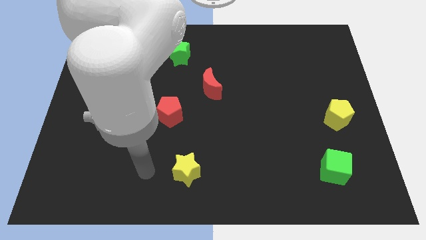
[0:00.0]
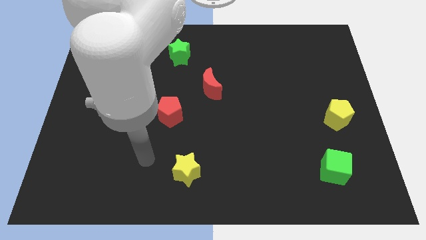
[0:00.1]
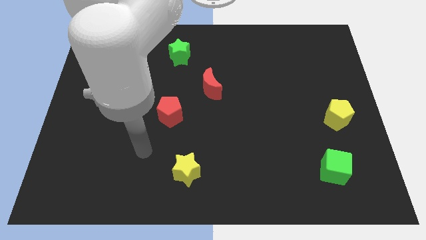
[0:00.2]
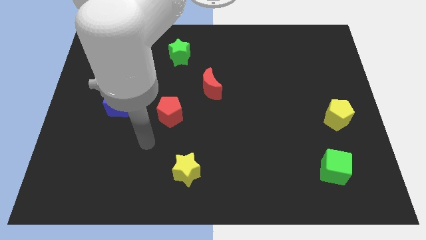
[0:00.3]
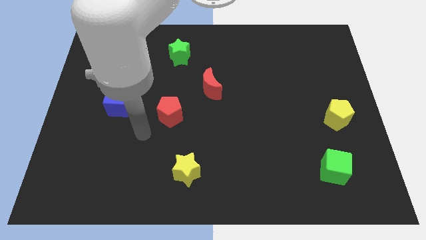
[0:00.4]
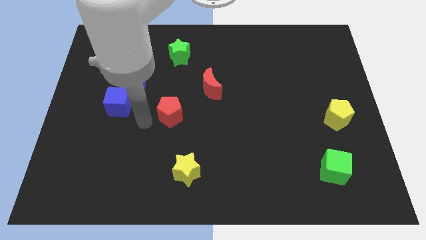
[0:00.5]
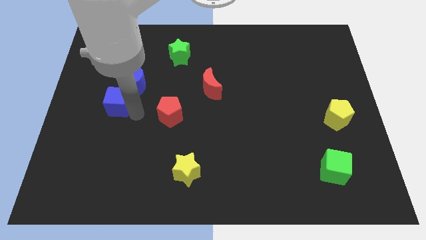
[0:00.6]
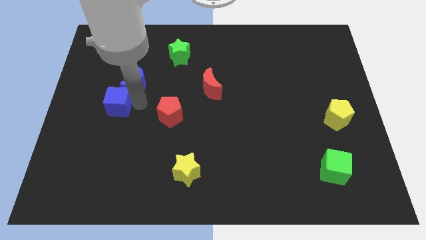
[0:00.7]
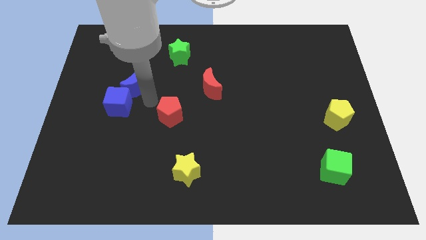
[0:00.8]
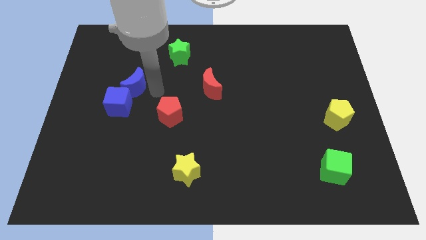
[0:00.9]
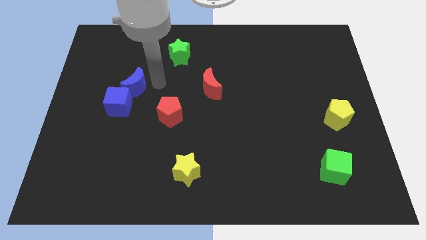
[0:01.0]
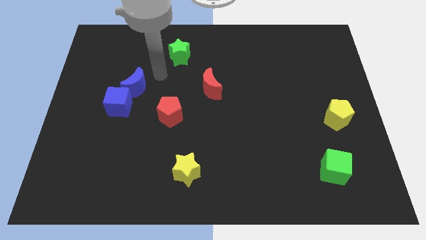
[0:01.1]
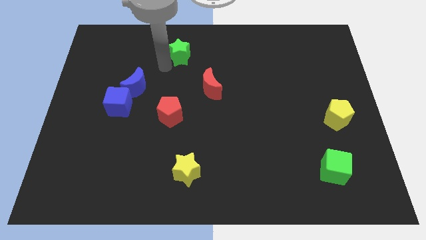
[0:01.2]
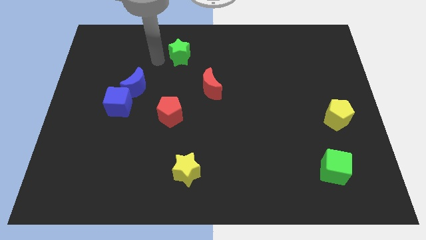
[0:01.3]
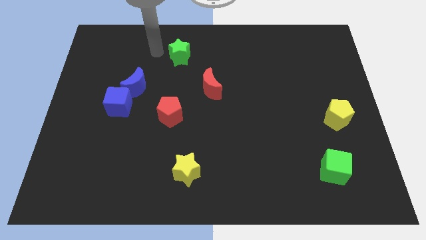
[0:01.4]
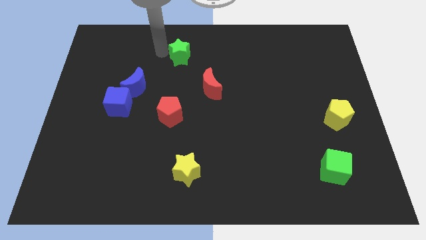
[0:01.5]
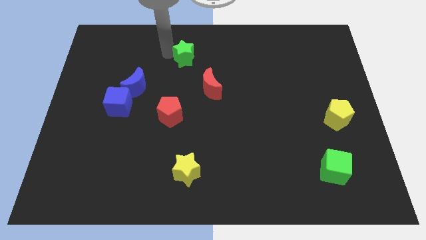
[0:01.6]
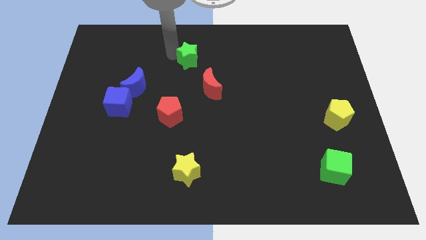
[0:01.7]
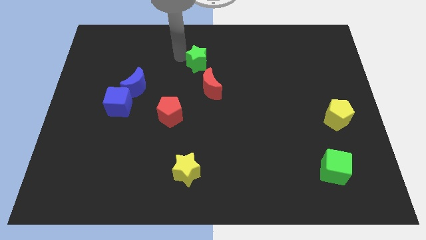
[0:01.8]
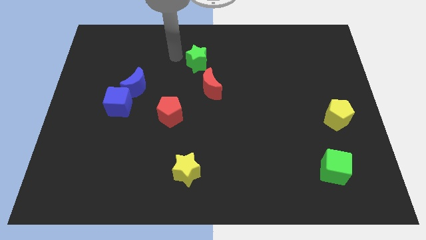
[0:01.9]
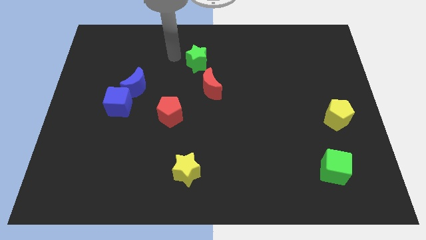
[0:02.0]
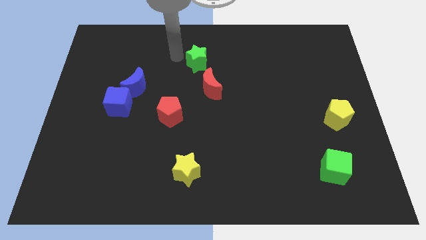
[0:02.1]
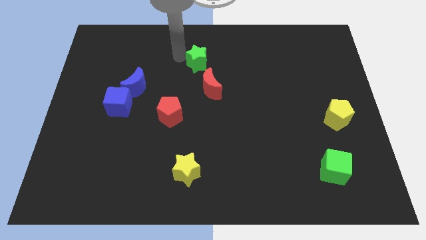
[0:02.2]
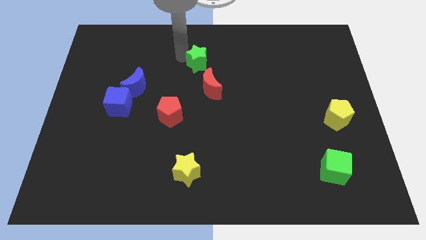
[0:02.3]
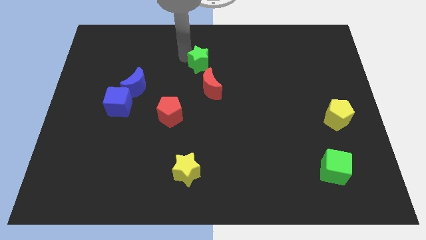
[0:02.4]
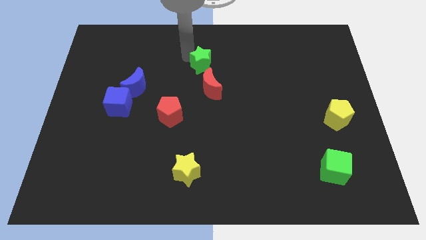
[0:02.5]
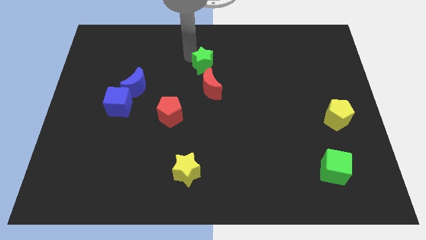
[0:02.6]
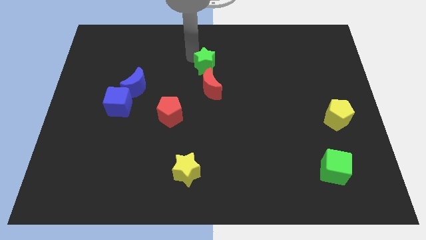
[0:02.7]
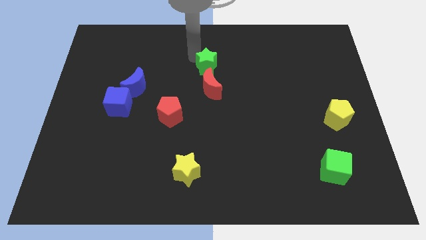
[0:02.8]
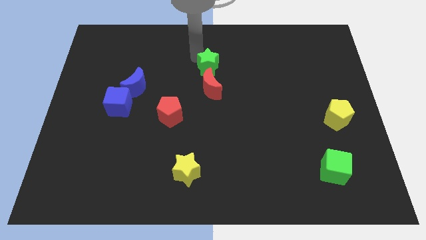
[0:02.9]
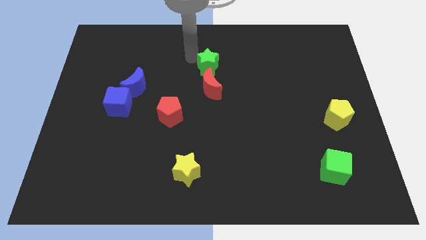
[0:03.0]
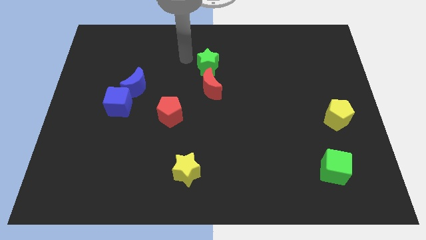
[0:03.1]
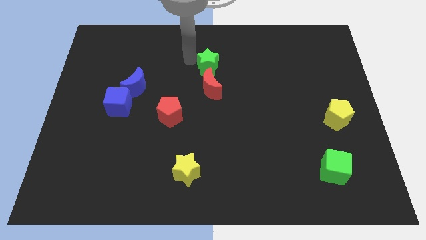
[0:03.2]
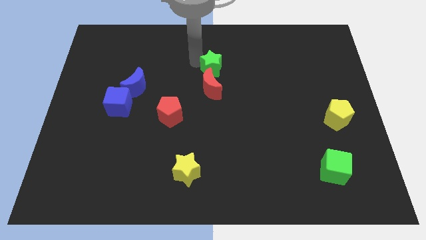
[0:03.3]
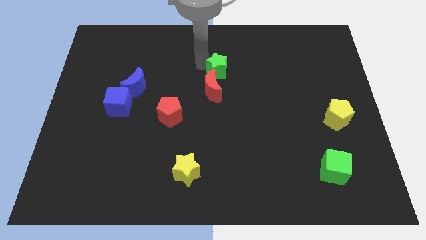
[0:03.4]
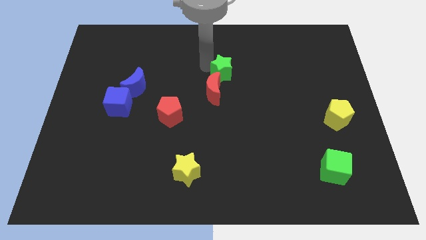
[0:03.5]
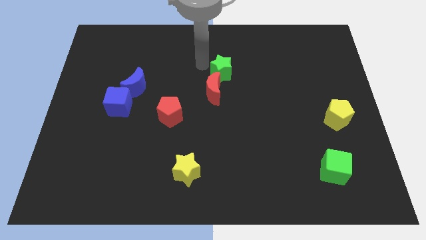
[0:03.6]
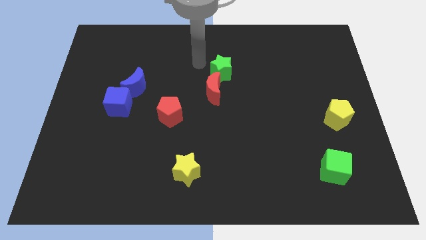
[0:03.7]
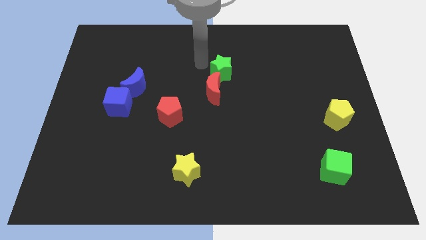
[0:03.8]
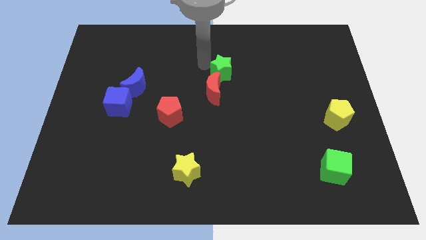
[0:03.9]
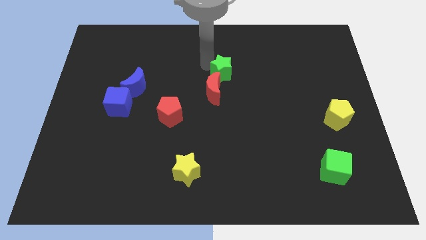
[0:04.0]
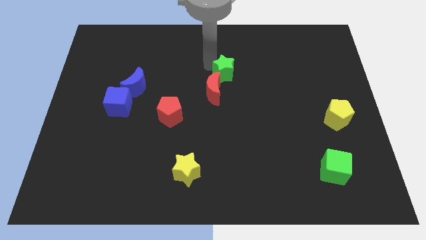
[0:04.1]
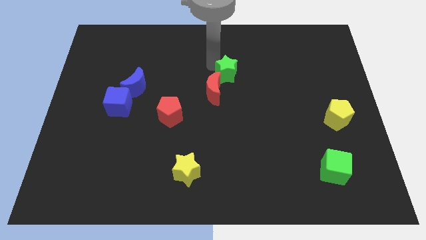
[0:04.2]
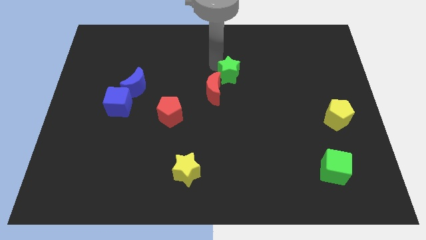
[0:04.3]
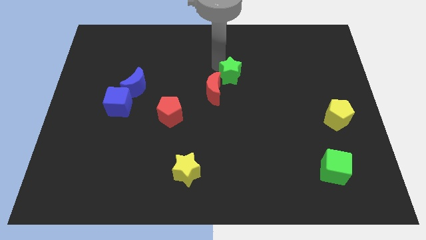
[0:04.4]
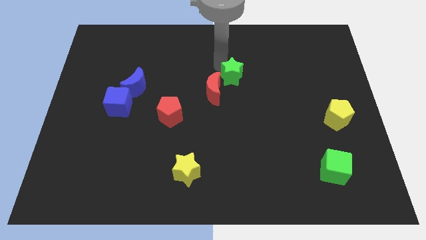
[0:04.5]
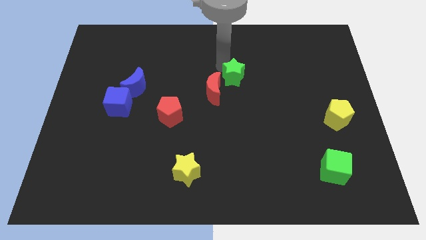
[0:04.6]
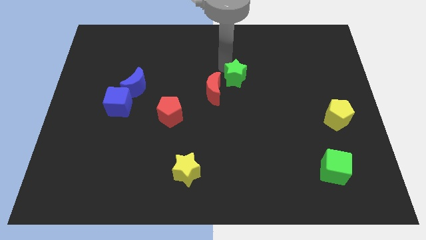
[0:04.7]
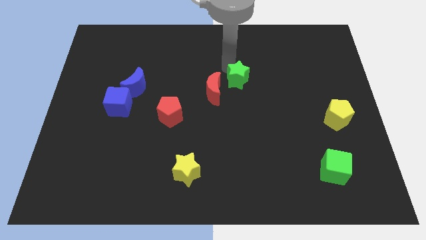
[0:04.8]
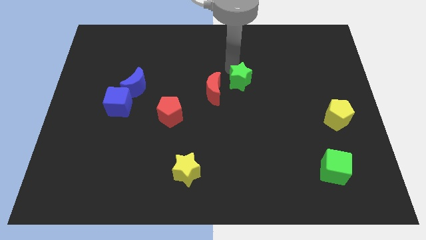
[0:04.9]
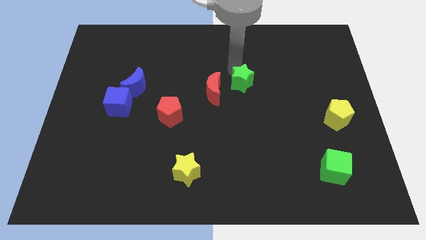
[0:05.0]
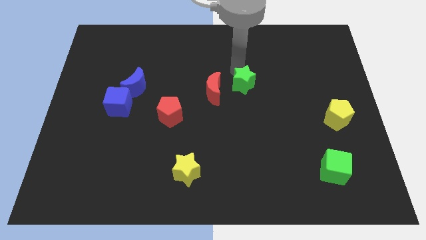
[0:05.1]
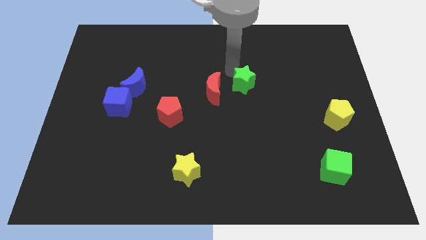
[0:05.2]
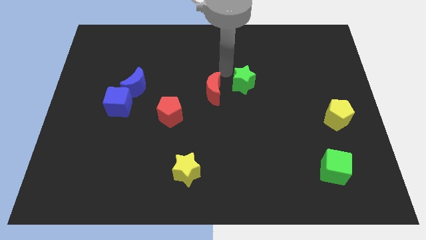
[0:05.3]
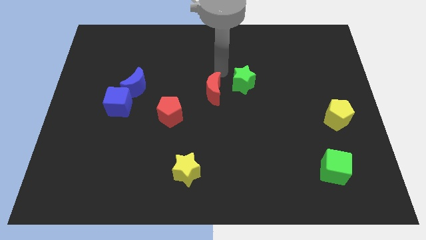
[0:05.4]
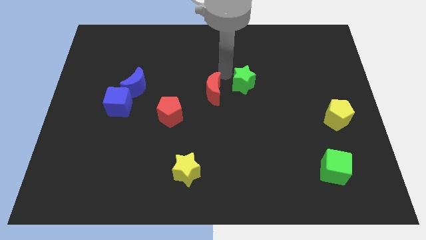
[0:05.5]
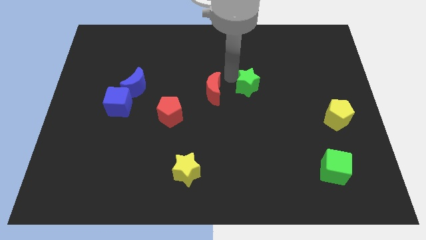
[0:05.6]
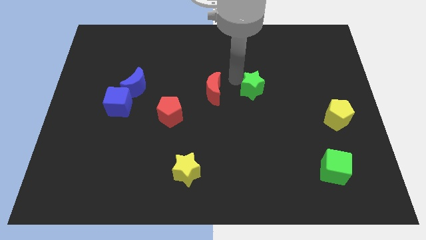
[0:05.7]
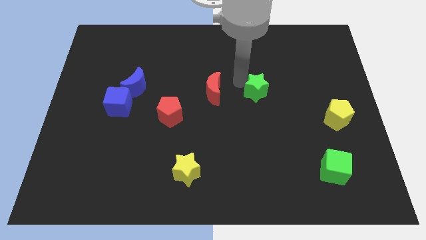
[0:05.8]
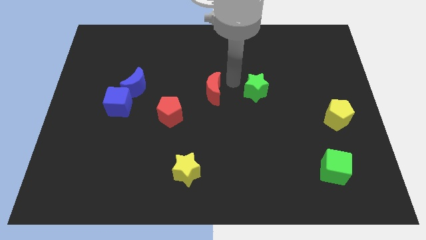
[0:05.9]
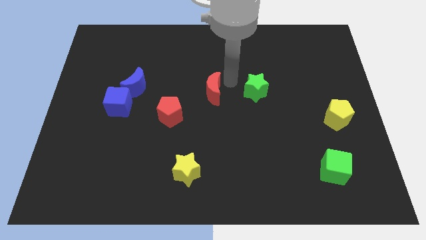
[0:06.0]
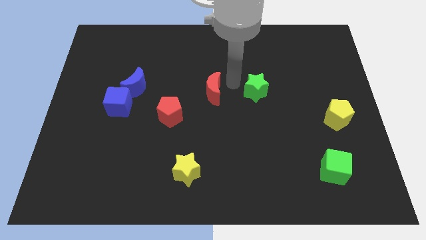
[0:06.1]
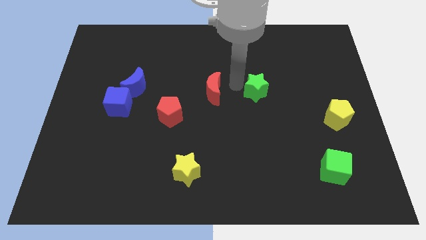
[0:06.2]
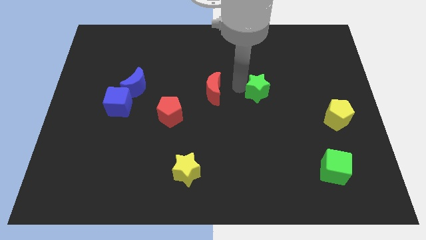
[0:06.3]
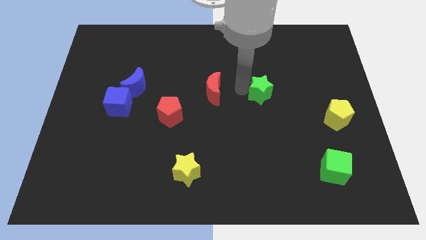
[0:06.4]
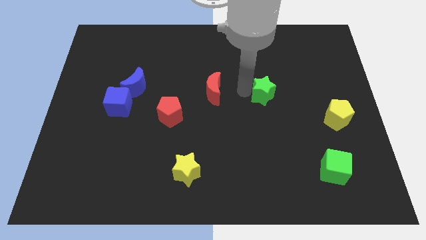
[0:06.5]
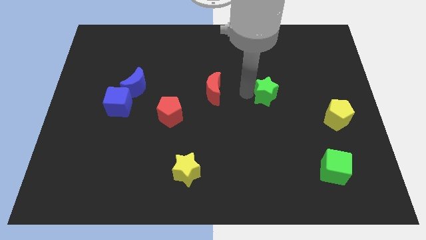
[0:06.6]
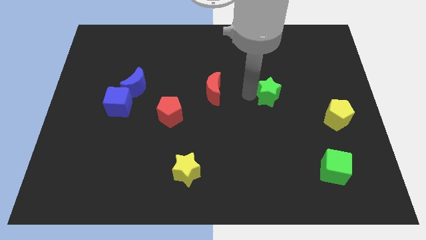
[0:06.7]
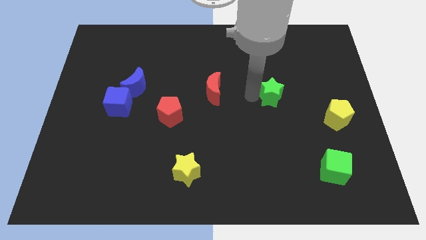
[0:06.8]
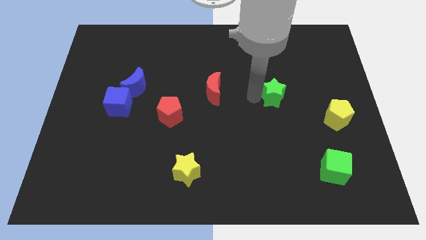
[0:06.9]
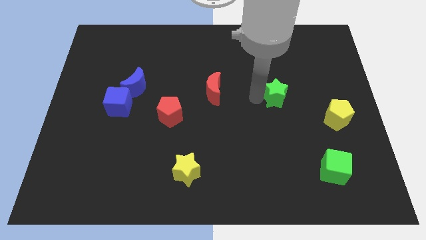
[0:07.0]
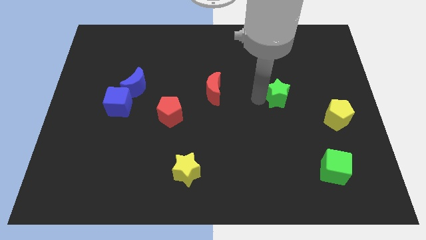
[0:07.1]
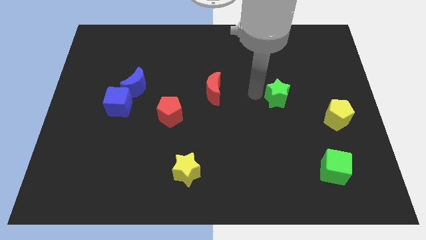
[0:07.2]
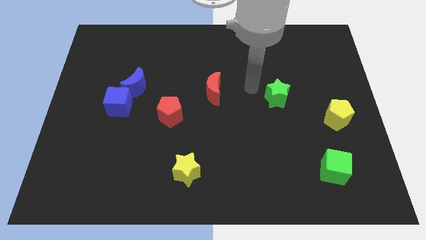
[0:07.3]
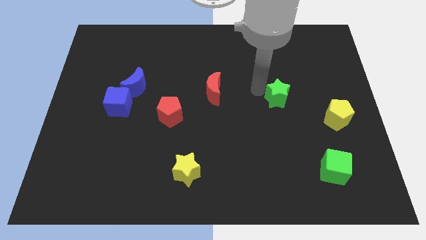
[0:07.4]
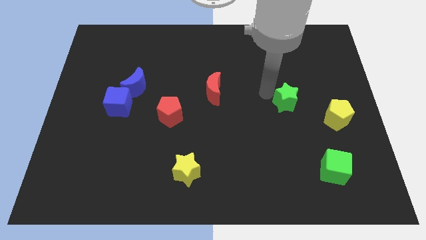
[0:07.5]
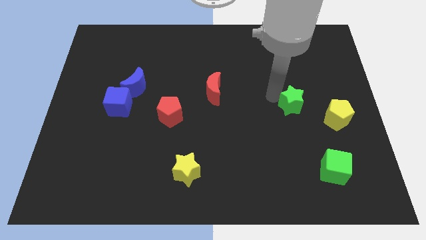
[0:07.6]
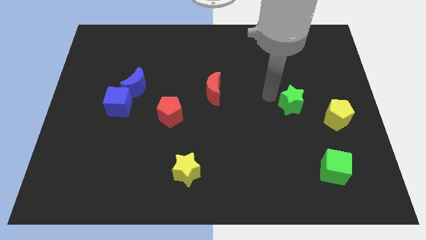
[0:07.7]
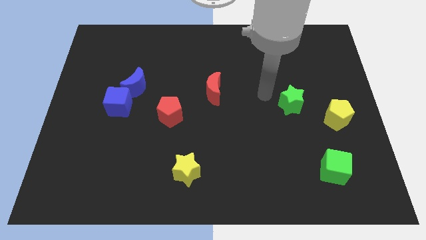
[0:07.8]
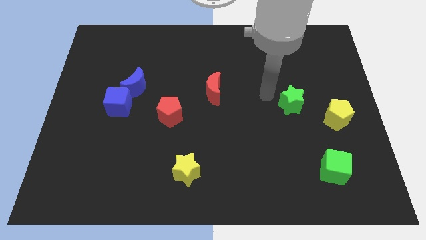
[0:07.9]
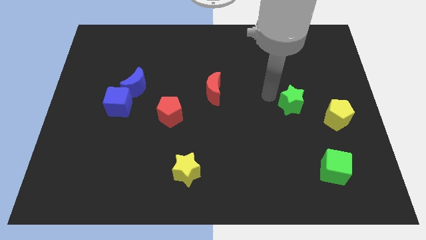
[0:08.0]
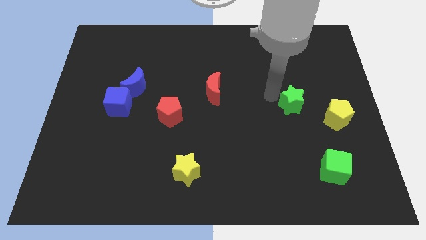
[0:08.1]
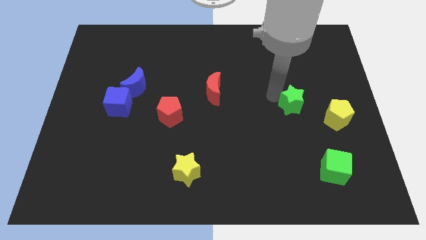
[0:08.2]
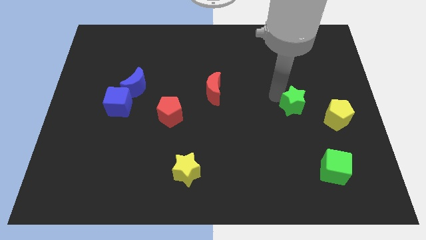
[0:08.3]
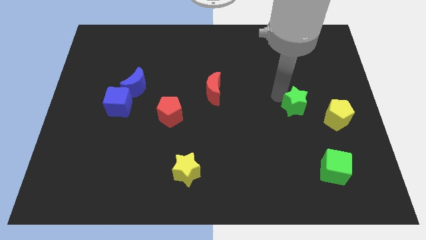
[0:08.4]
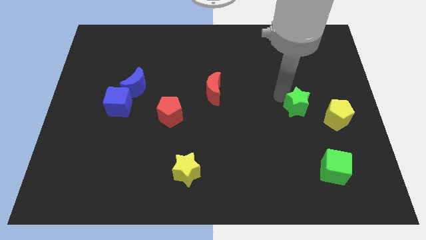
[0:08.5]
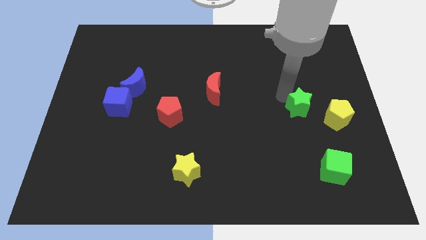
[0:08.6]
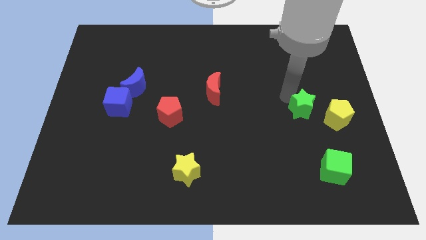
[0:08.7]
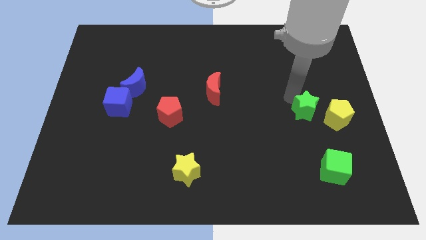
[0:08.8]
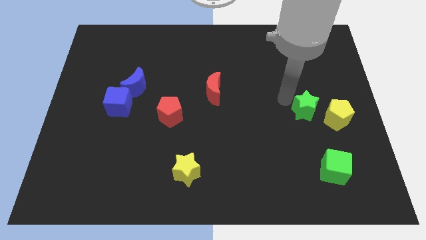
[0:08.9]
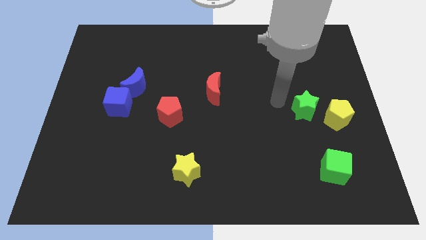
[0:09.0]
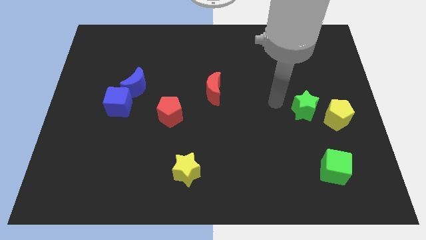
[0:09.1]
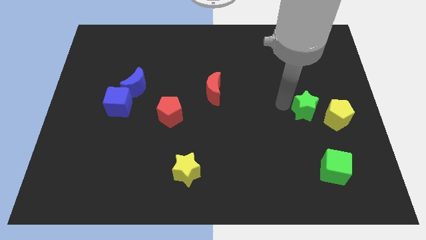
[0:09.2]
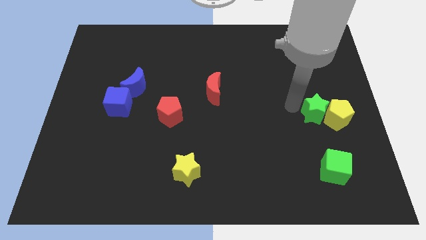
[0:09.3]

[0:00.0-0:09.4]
move the green star next to the yellow pentagon
